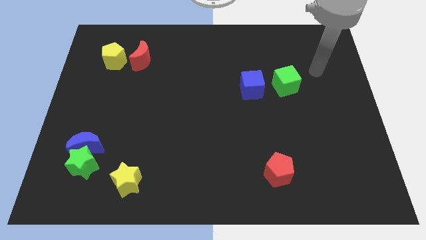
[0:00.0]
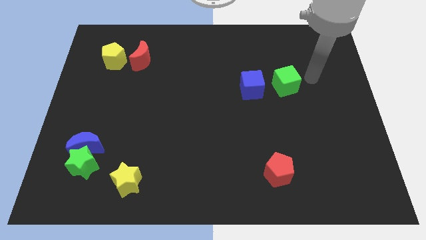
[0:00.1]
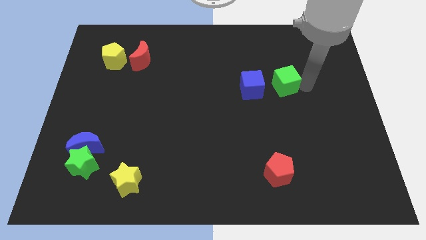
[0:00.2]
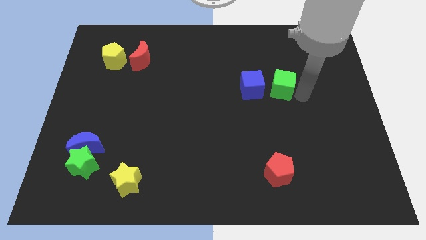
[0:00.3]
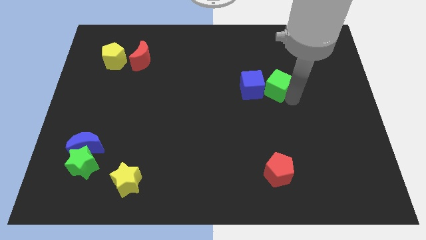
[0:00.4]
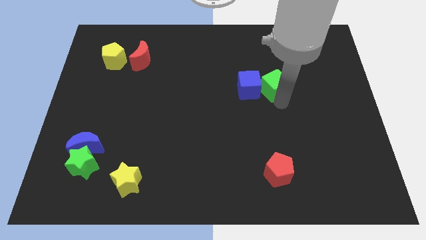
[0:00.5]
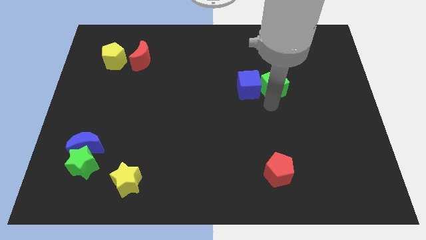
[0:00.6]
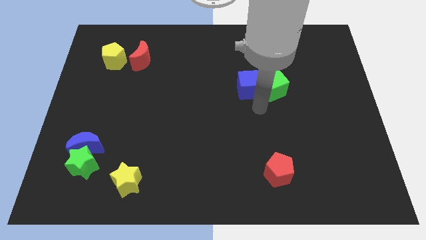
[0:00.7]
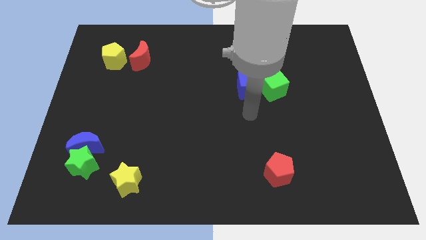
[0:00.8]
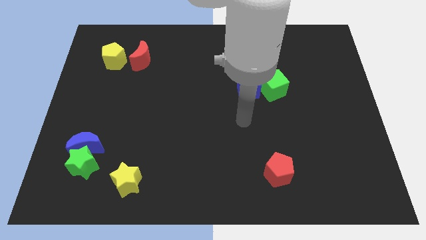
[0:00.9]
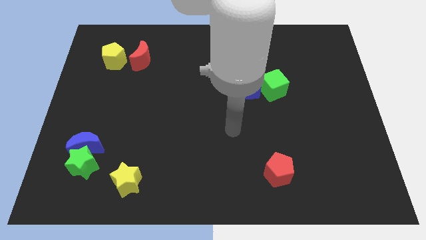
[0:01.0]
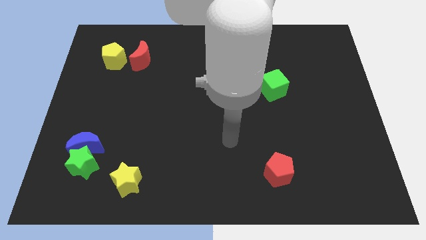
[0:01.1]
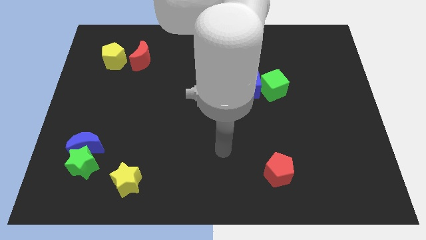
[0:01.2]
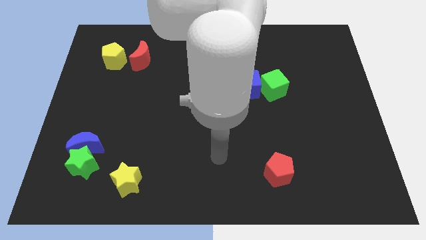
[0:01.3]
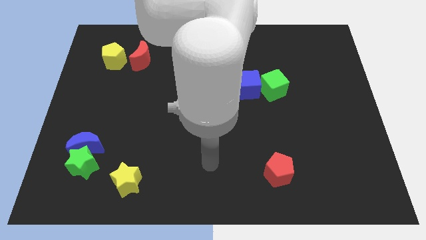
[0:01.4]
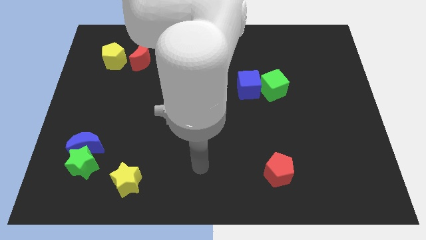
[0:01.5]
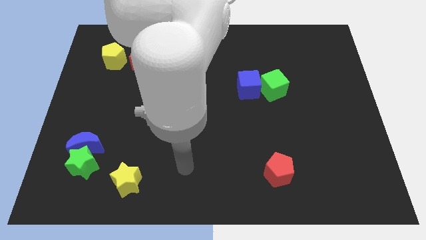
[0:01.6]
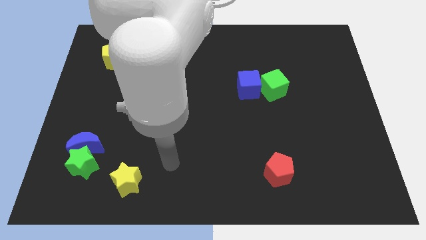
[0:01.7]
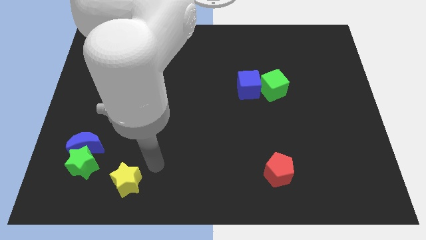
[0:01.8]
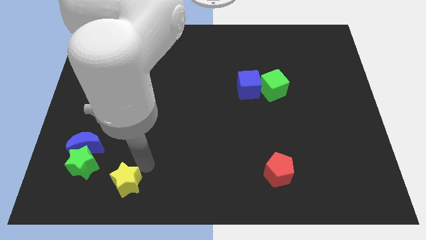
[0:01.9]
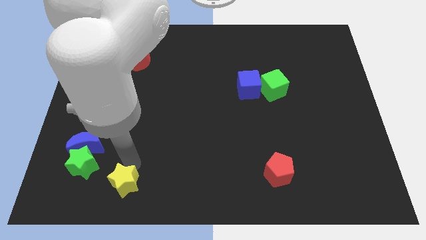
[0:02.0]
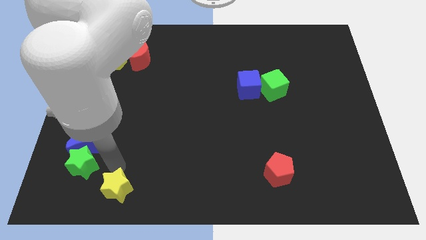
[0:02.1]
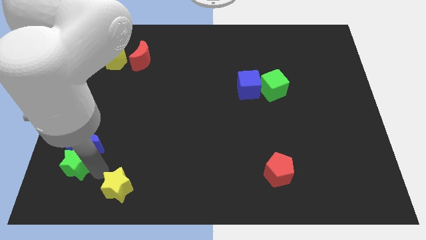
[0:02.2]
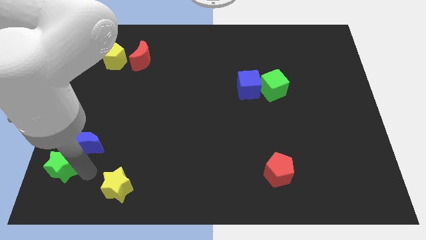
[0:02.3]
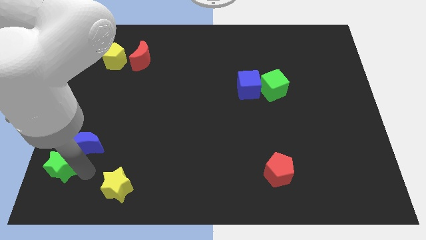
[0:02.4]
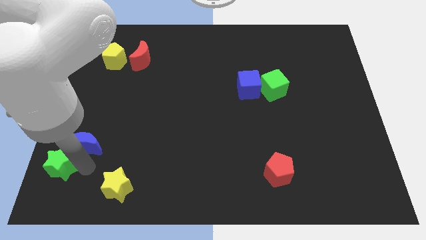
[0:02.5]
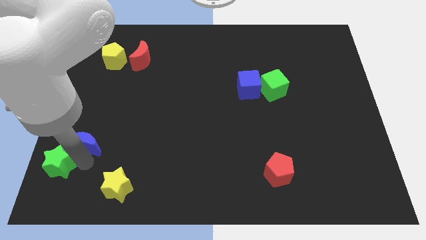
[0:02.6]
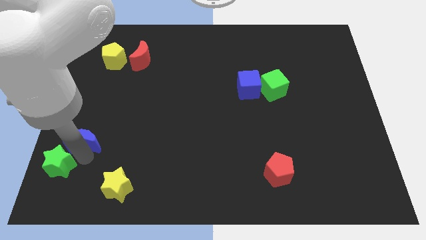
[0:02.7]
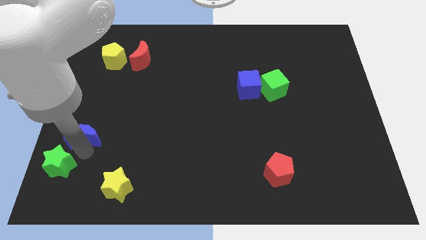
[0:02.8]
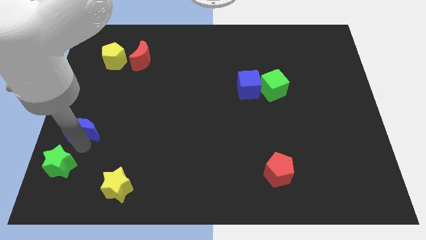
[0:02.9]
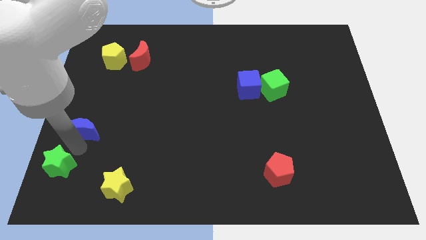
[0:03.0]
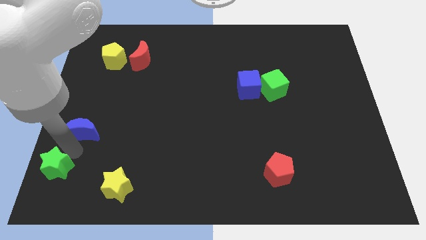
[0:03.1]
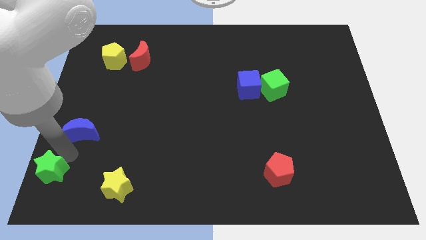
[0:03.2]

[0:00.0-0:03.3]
pull the blue moon apart from the green star

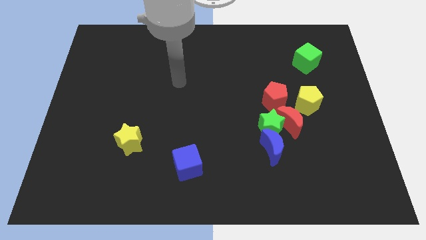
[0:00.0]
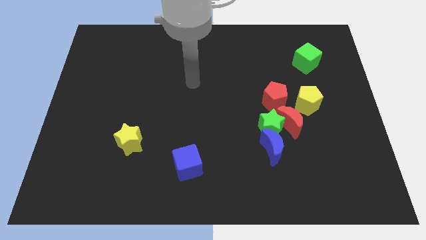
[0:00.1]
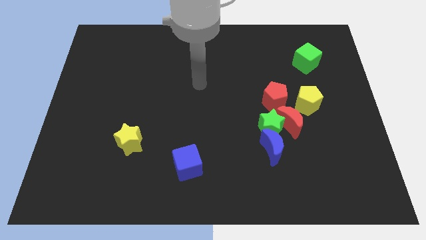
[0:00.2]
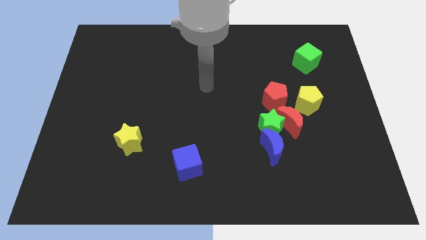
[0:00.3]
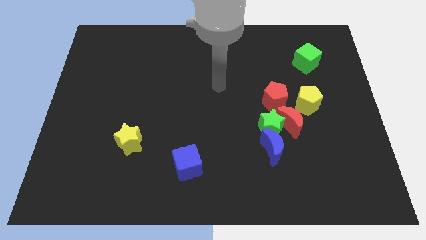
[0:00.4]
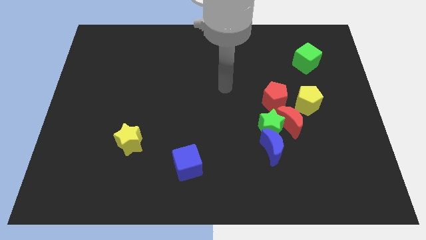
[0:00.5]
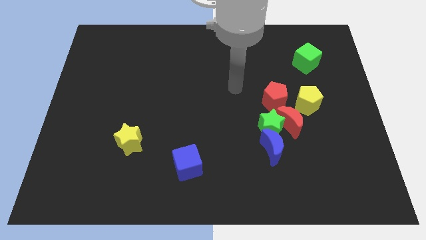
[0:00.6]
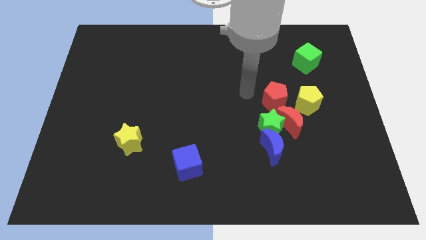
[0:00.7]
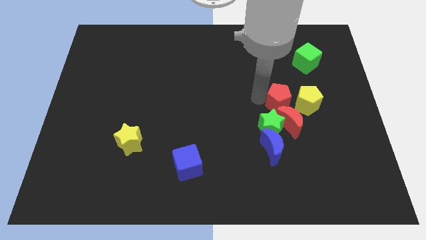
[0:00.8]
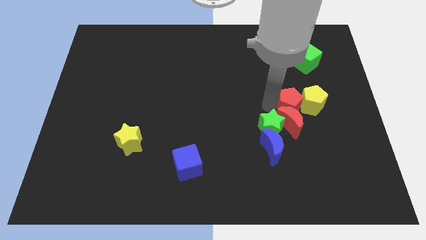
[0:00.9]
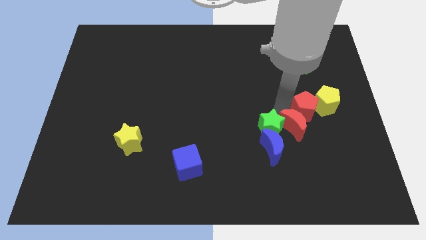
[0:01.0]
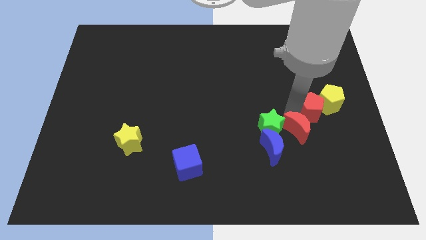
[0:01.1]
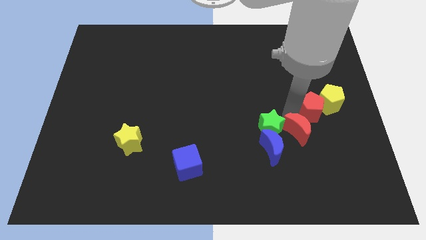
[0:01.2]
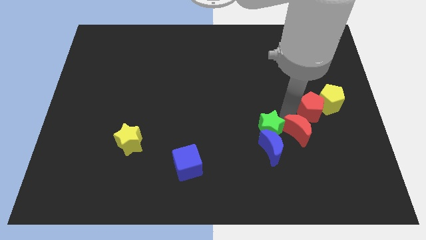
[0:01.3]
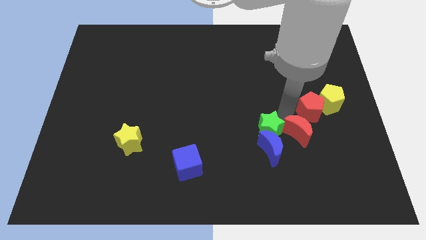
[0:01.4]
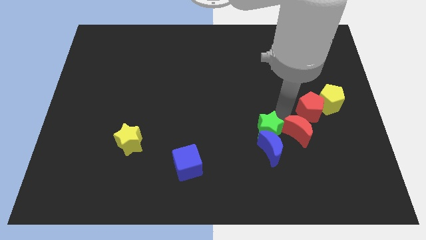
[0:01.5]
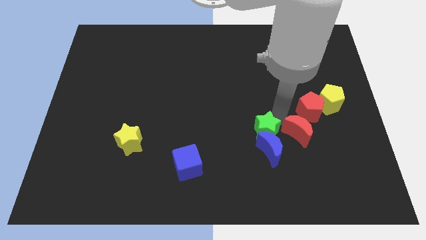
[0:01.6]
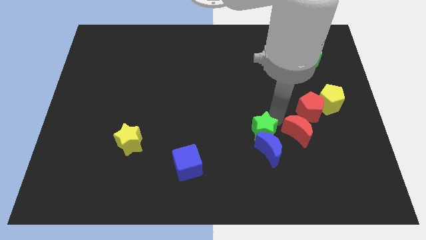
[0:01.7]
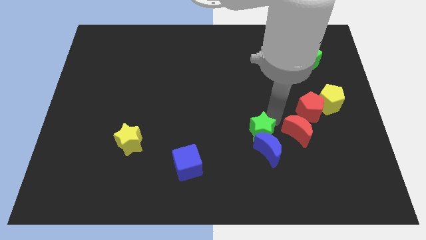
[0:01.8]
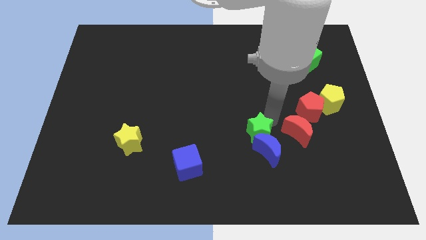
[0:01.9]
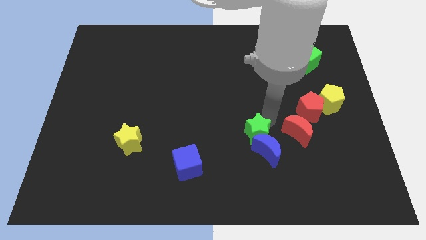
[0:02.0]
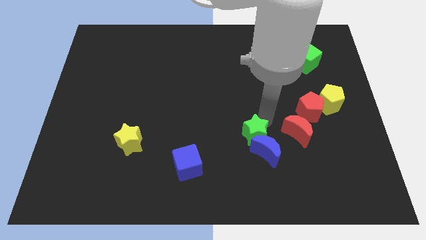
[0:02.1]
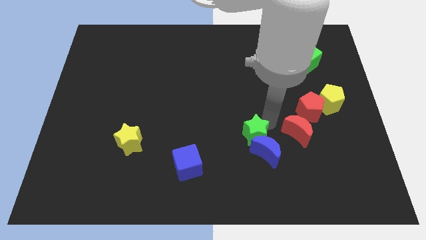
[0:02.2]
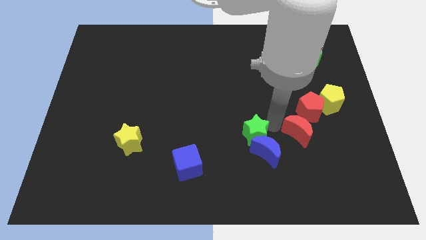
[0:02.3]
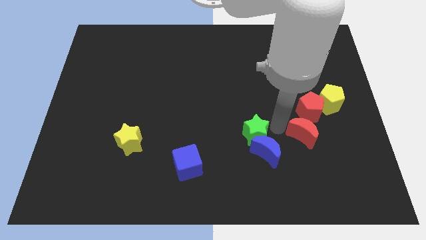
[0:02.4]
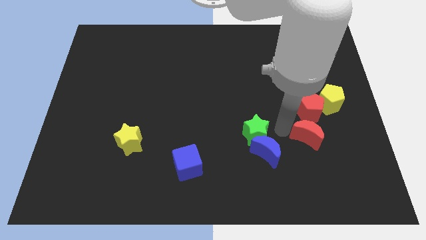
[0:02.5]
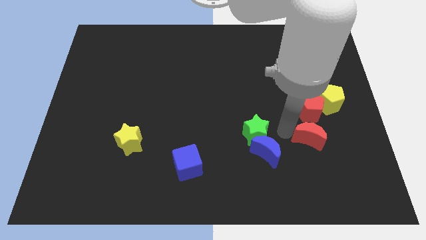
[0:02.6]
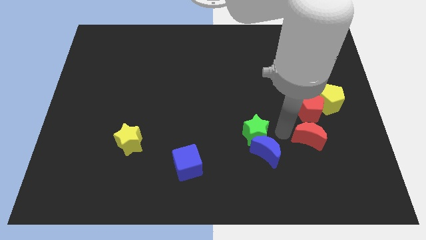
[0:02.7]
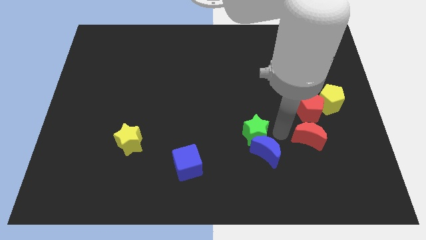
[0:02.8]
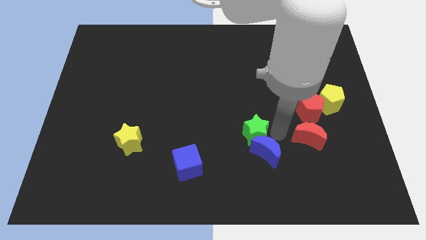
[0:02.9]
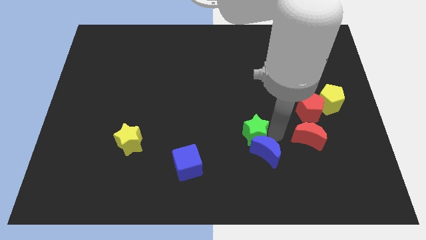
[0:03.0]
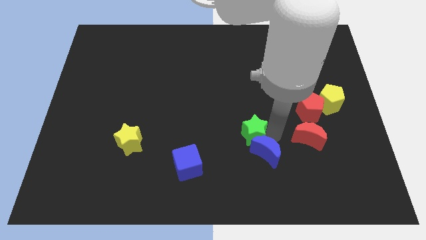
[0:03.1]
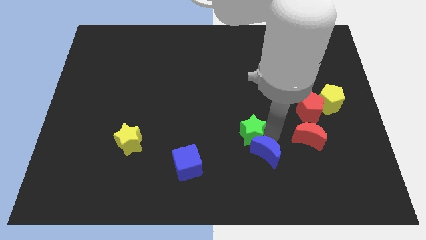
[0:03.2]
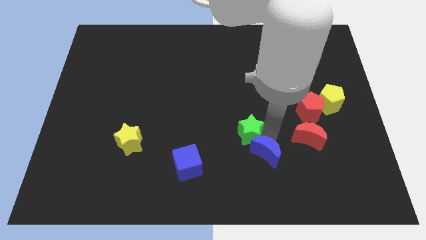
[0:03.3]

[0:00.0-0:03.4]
separate the green star from the group of blocks

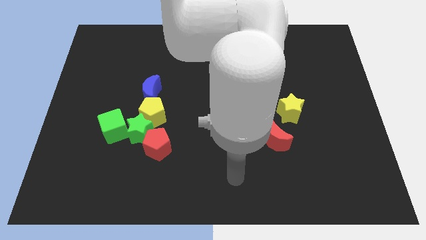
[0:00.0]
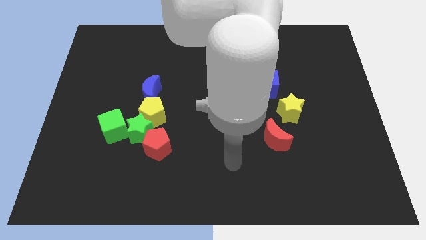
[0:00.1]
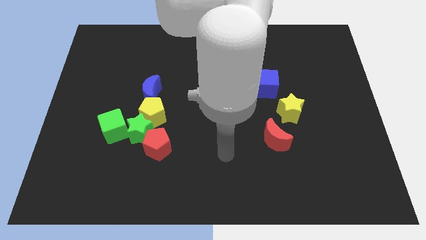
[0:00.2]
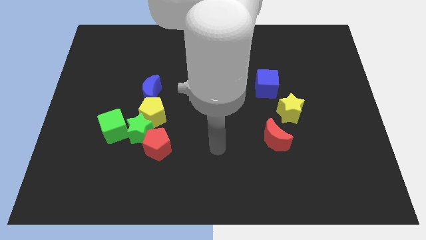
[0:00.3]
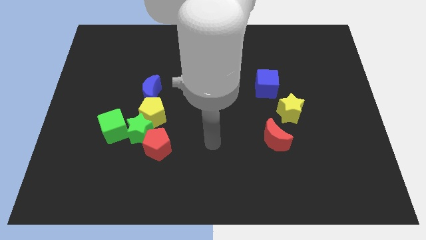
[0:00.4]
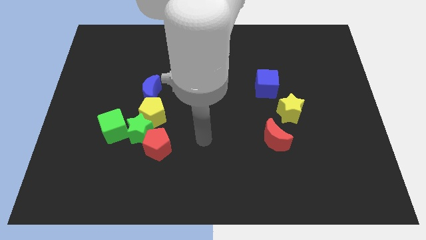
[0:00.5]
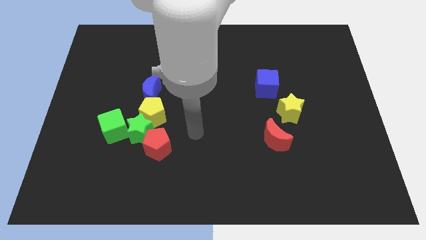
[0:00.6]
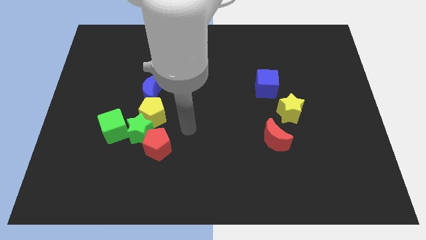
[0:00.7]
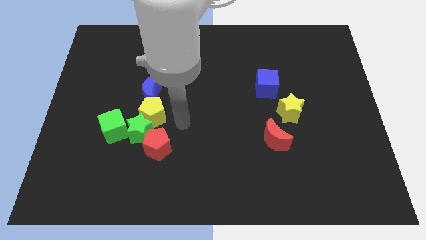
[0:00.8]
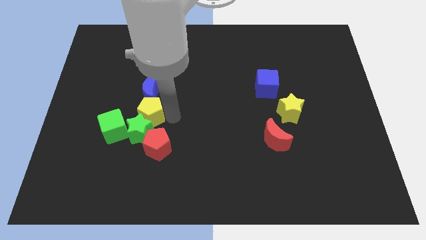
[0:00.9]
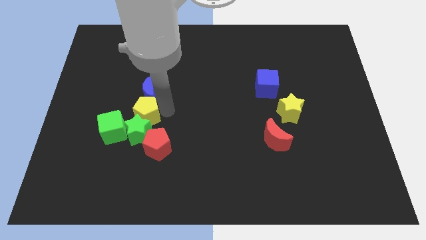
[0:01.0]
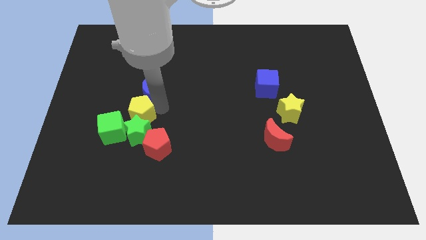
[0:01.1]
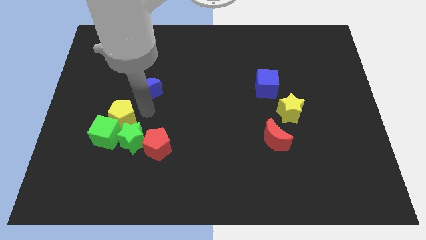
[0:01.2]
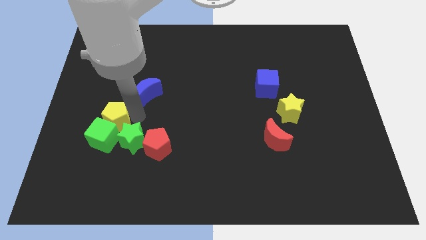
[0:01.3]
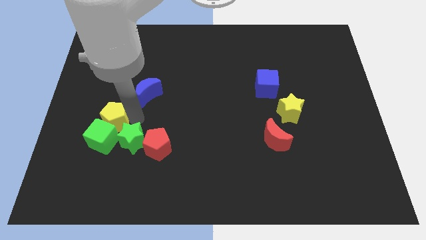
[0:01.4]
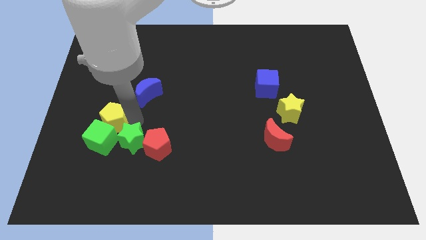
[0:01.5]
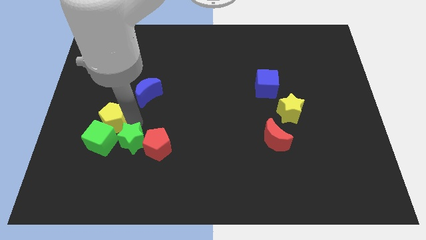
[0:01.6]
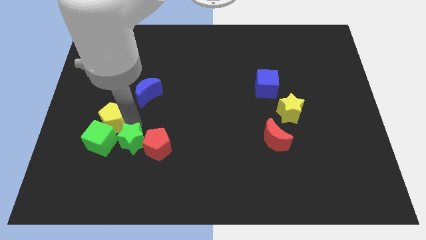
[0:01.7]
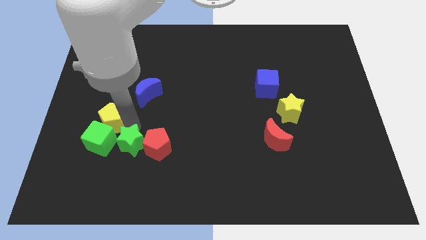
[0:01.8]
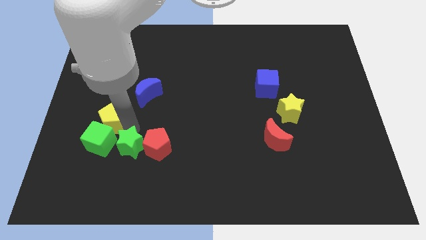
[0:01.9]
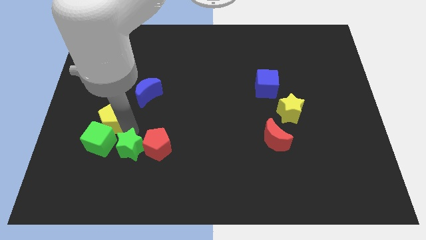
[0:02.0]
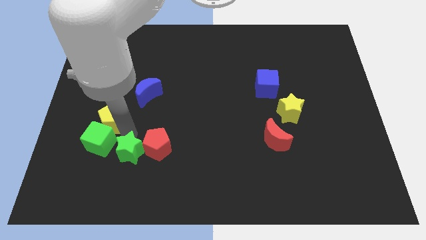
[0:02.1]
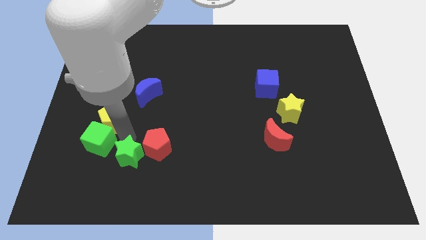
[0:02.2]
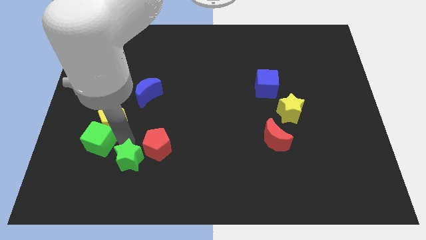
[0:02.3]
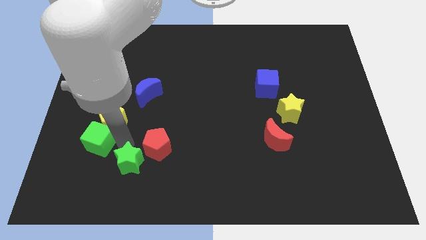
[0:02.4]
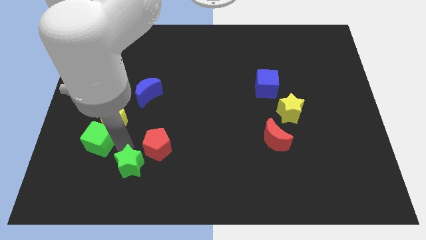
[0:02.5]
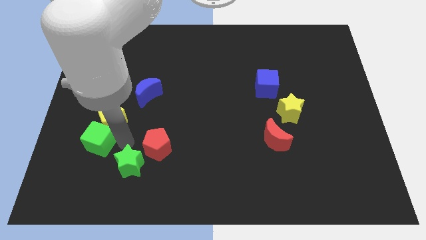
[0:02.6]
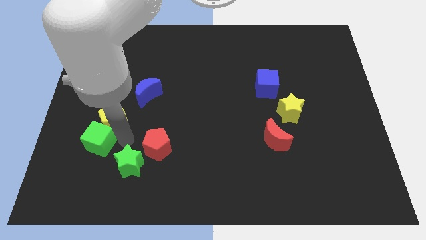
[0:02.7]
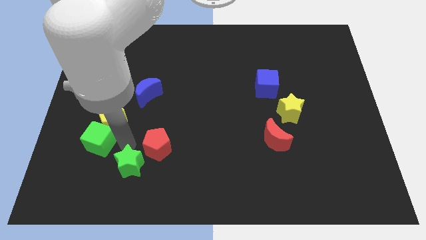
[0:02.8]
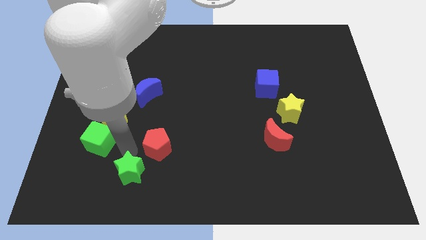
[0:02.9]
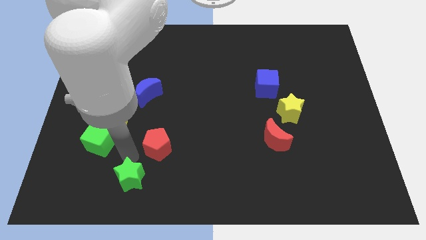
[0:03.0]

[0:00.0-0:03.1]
pull the green star apart from the red pentagon, yellow pentagon, and green cube
